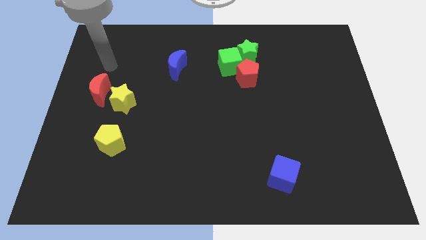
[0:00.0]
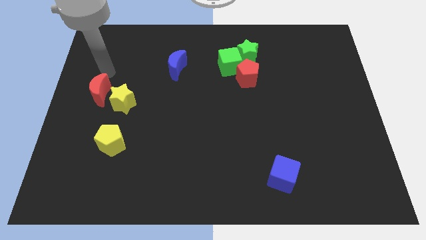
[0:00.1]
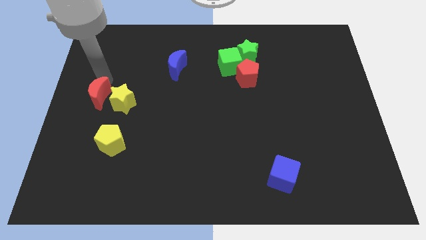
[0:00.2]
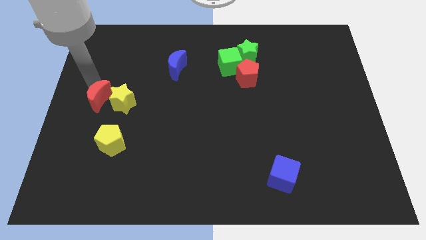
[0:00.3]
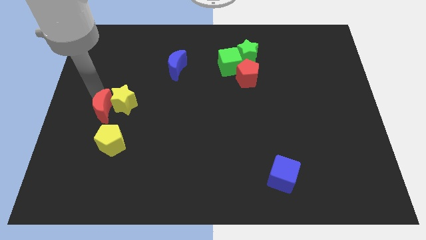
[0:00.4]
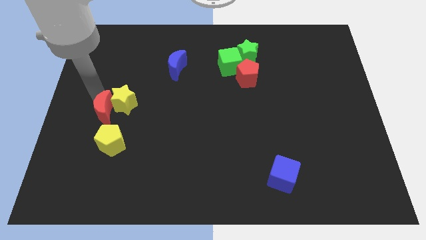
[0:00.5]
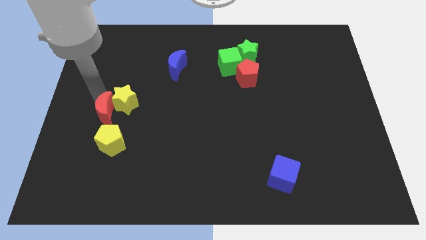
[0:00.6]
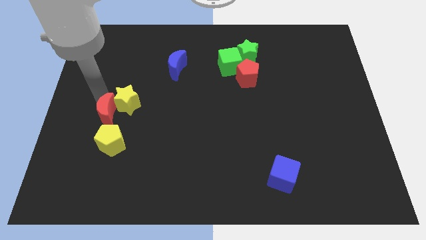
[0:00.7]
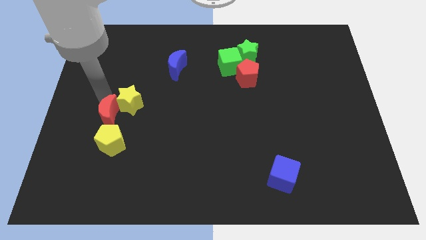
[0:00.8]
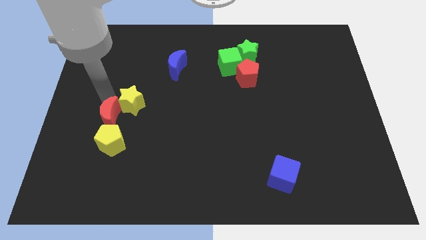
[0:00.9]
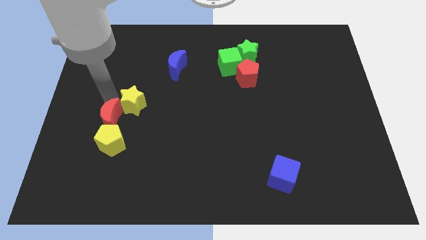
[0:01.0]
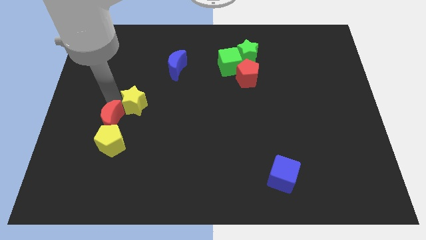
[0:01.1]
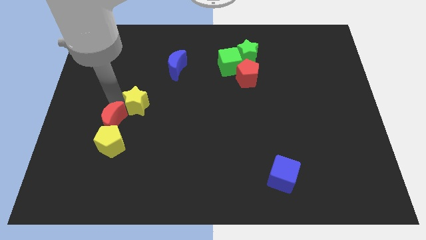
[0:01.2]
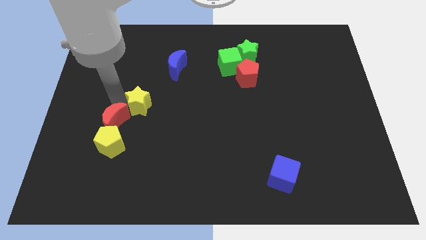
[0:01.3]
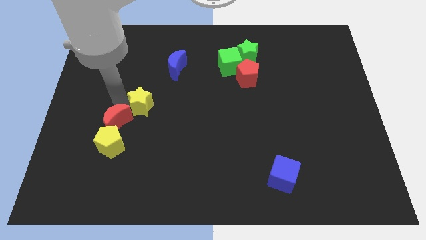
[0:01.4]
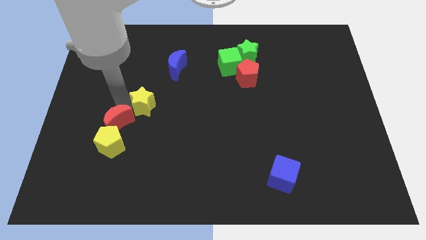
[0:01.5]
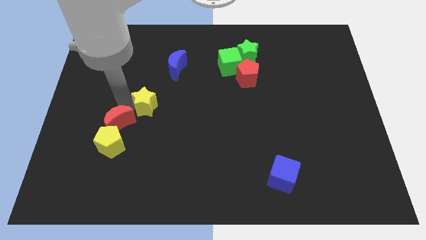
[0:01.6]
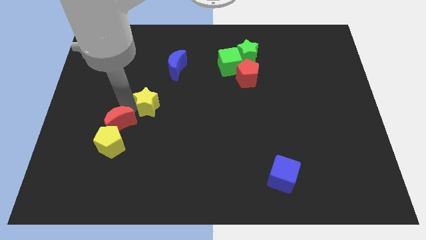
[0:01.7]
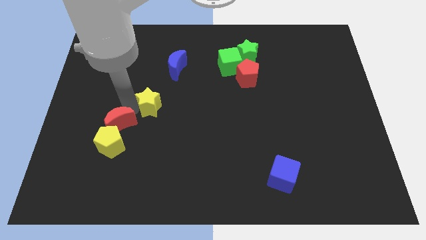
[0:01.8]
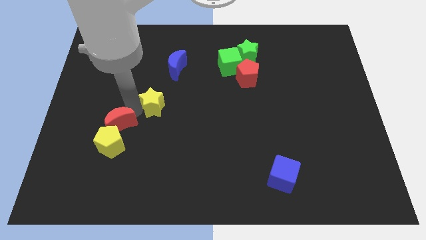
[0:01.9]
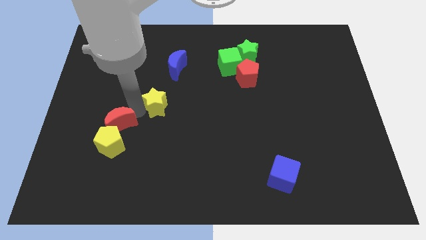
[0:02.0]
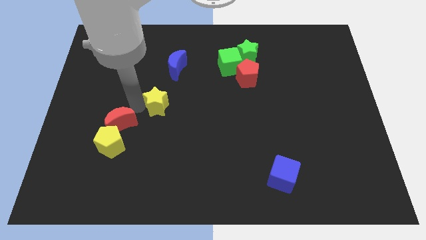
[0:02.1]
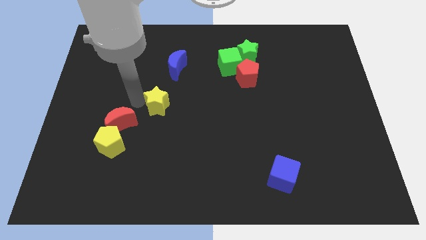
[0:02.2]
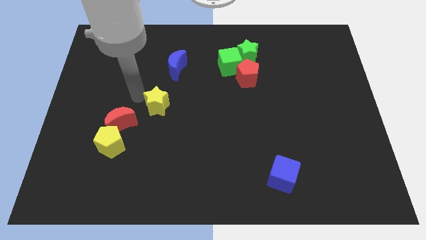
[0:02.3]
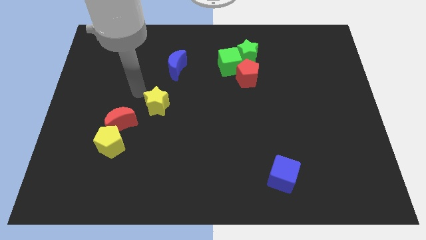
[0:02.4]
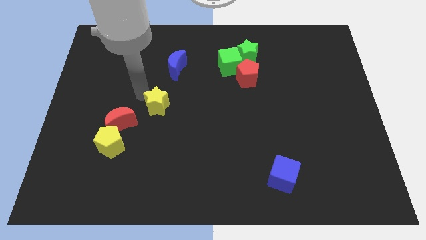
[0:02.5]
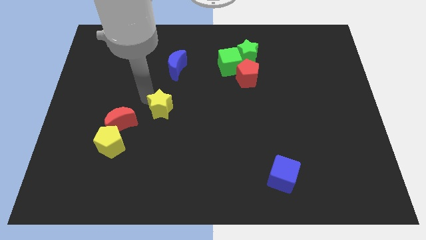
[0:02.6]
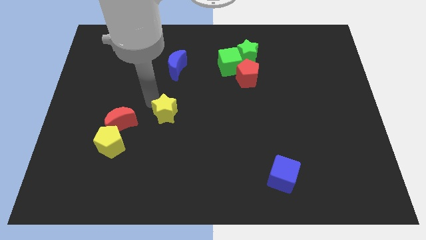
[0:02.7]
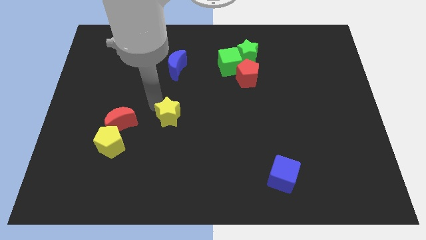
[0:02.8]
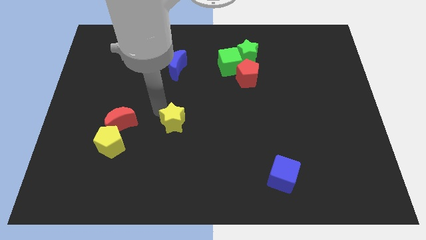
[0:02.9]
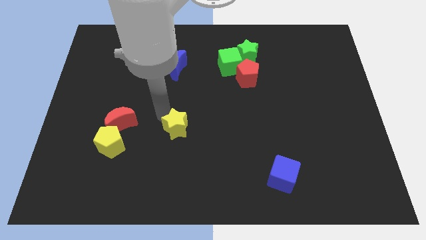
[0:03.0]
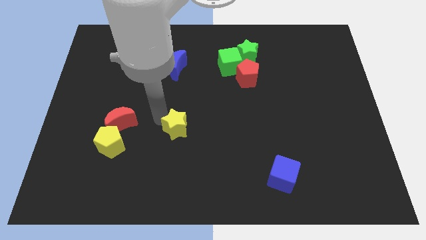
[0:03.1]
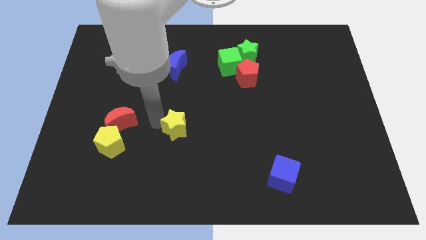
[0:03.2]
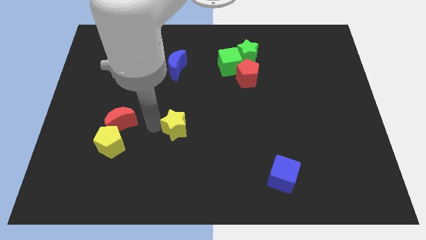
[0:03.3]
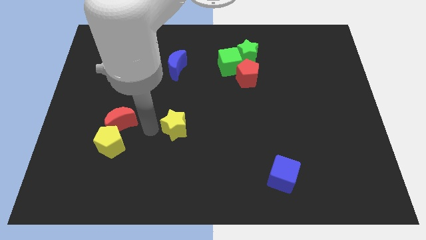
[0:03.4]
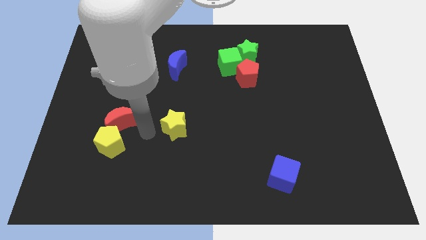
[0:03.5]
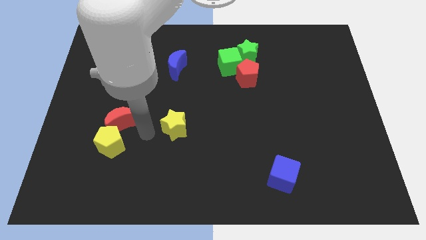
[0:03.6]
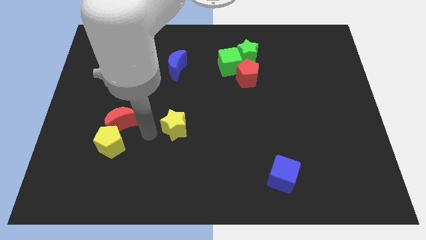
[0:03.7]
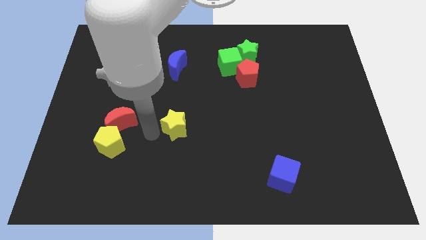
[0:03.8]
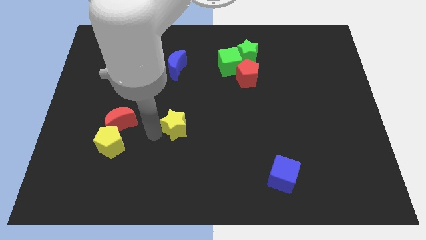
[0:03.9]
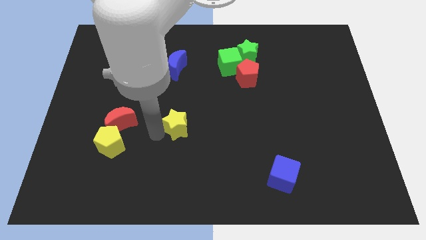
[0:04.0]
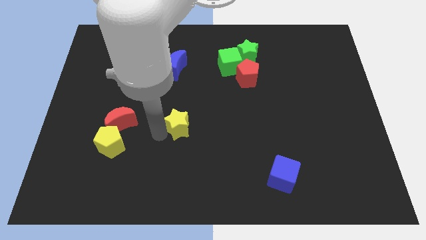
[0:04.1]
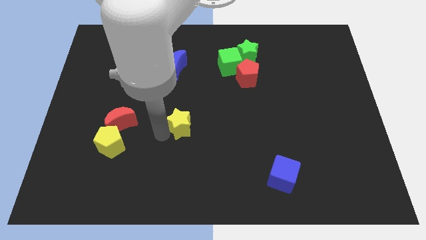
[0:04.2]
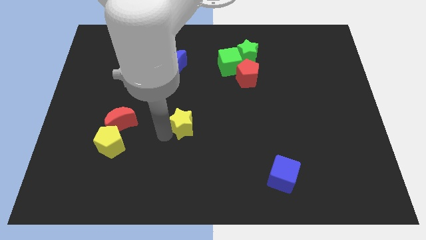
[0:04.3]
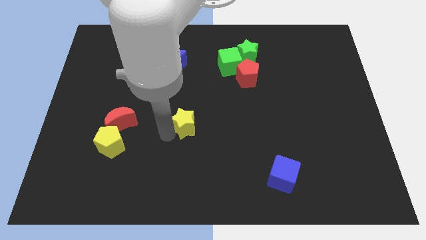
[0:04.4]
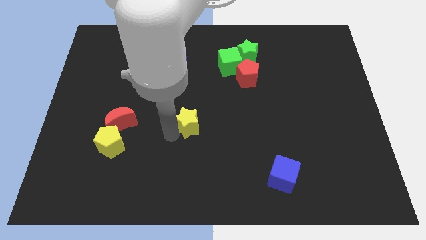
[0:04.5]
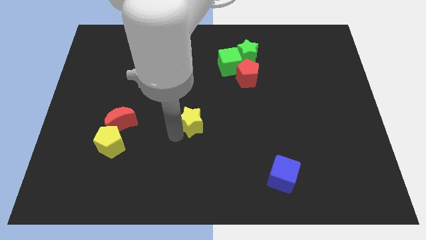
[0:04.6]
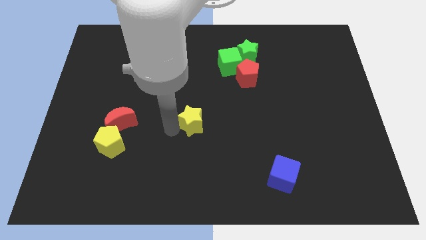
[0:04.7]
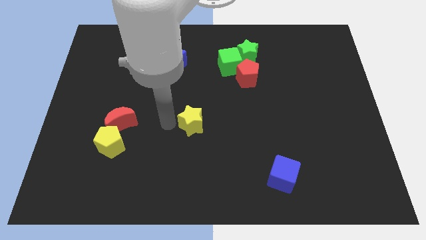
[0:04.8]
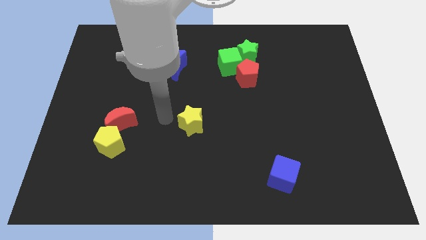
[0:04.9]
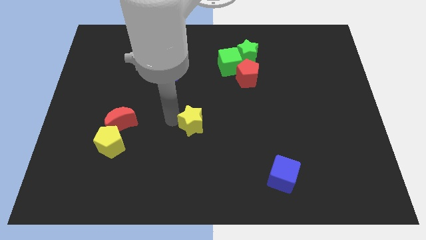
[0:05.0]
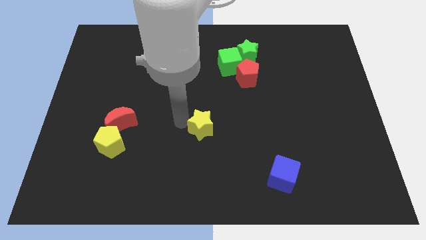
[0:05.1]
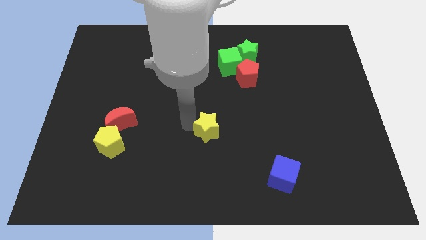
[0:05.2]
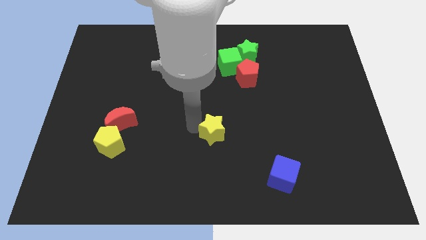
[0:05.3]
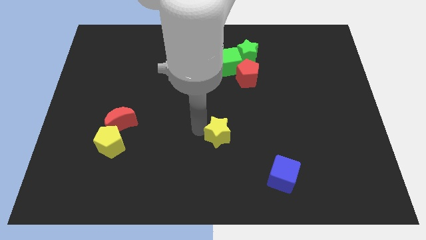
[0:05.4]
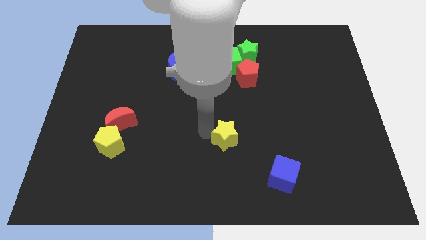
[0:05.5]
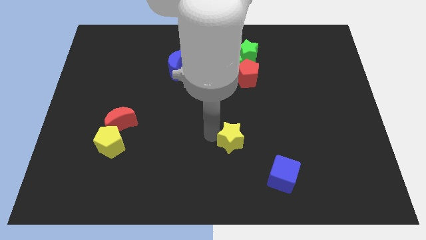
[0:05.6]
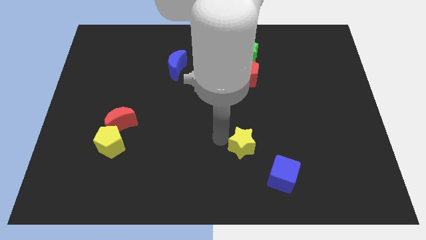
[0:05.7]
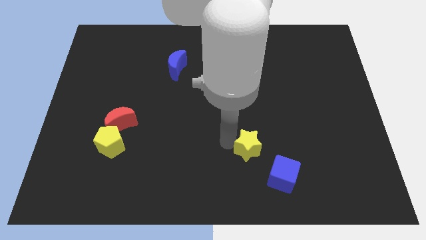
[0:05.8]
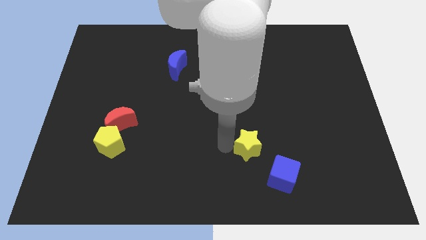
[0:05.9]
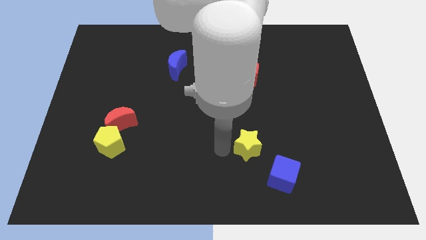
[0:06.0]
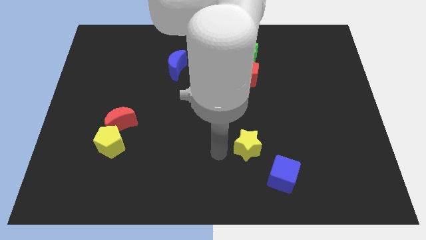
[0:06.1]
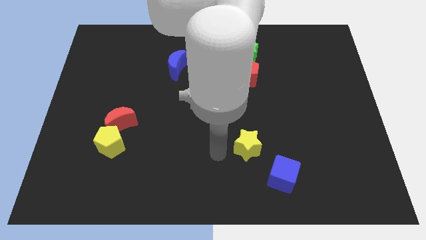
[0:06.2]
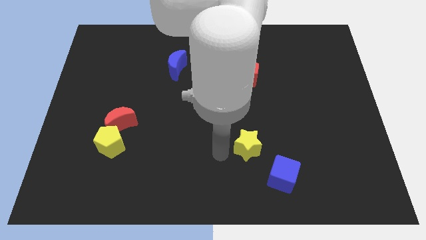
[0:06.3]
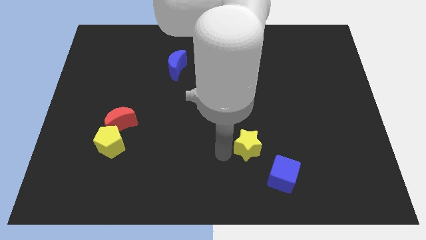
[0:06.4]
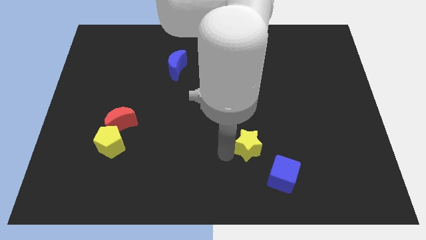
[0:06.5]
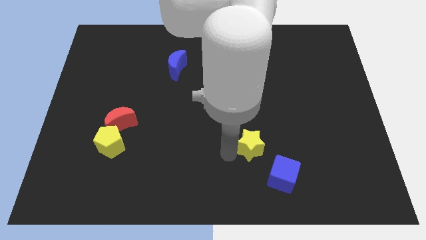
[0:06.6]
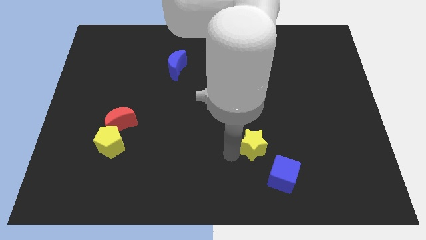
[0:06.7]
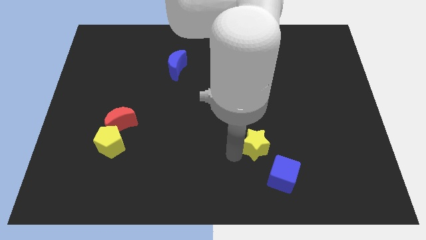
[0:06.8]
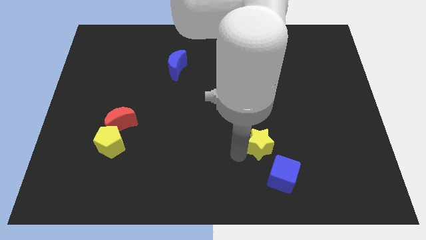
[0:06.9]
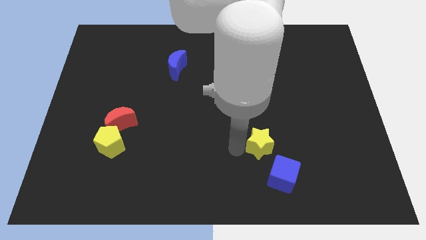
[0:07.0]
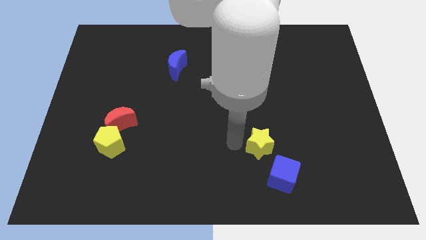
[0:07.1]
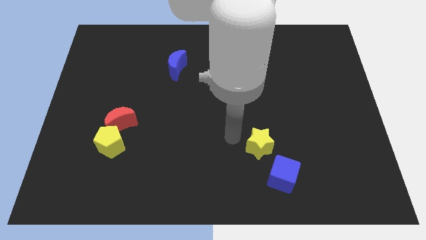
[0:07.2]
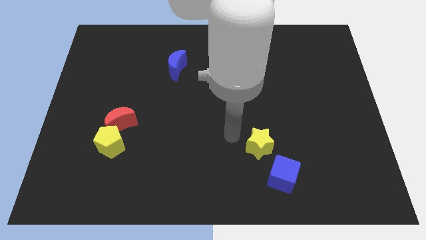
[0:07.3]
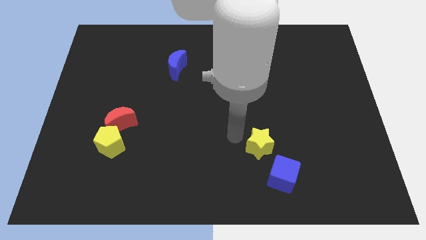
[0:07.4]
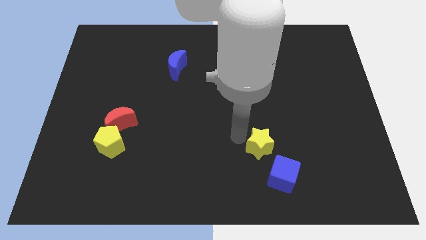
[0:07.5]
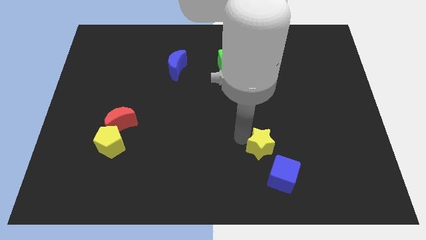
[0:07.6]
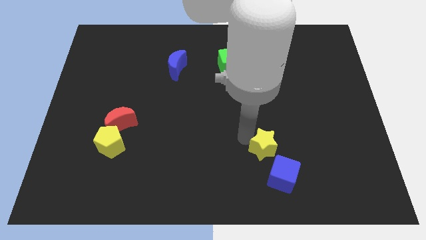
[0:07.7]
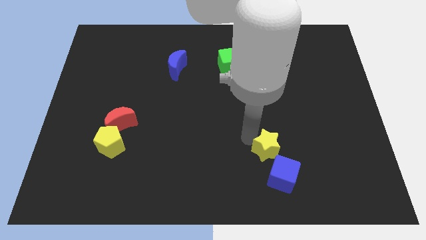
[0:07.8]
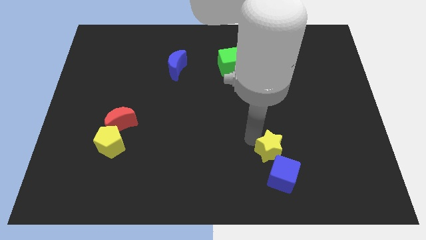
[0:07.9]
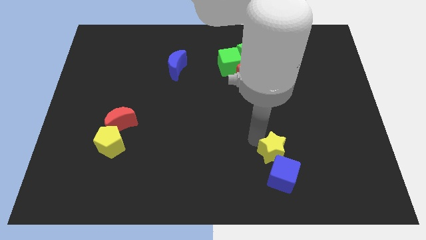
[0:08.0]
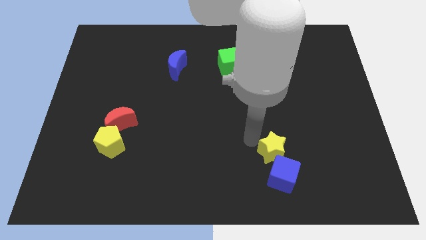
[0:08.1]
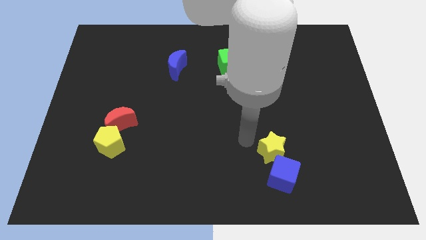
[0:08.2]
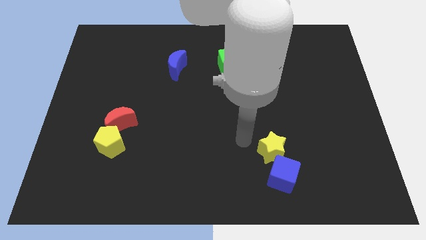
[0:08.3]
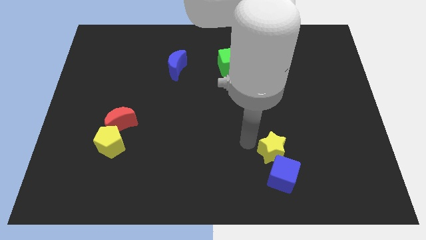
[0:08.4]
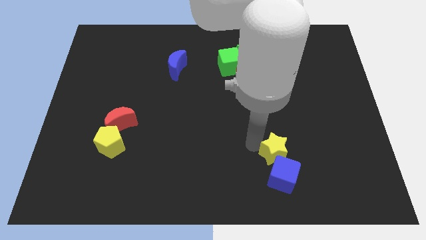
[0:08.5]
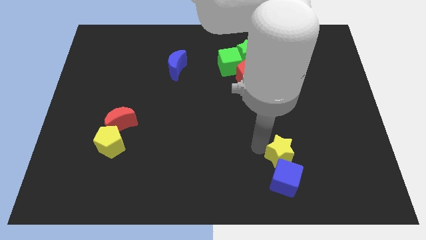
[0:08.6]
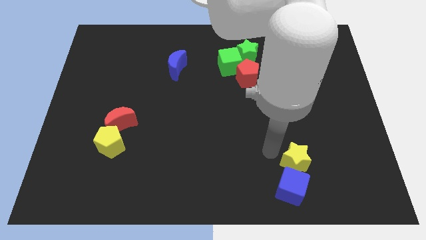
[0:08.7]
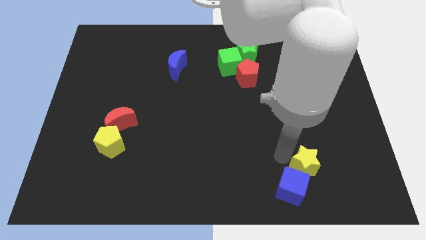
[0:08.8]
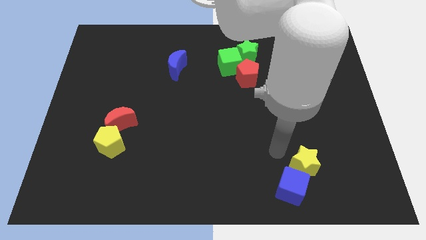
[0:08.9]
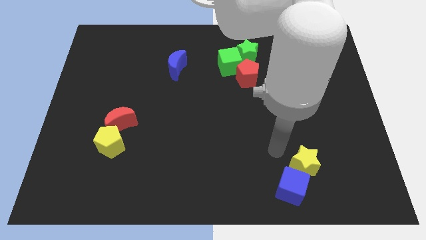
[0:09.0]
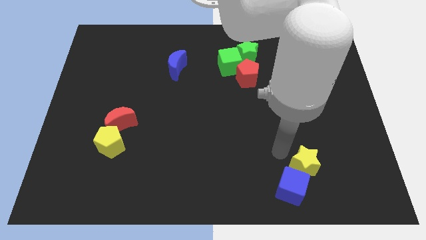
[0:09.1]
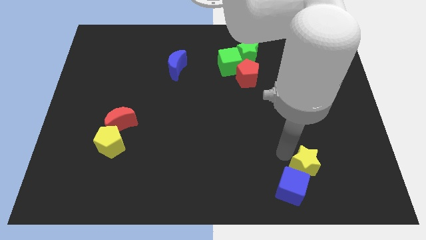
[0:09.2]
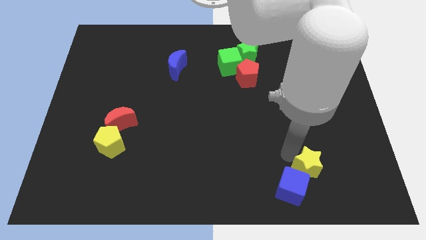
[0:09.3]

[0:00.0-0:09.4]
push the yellow star to the right of the blue cube
